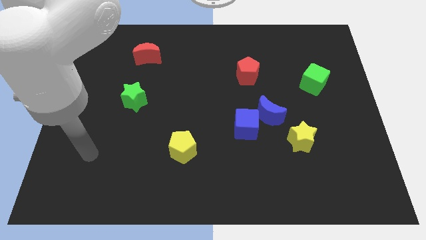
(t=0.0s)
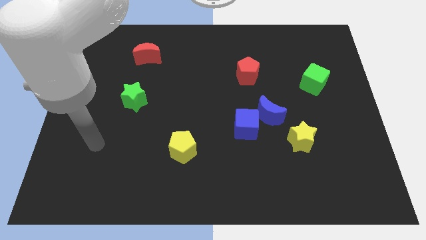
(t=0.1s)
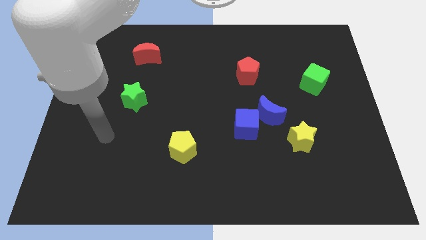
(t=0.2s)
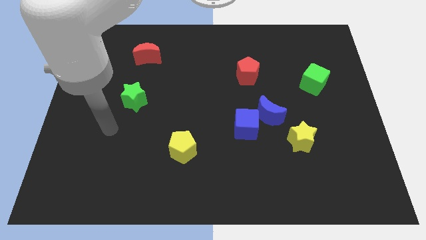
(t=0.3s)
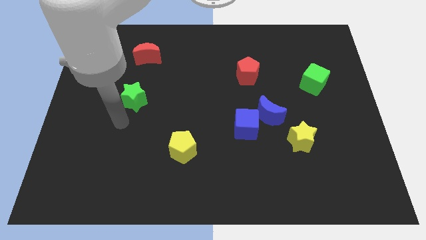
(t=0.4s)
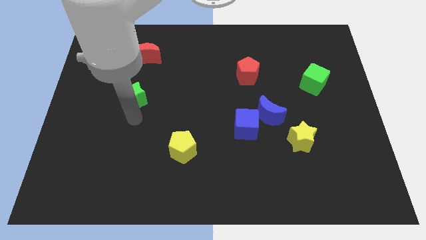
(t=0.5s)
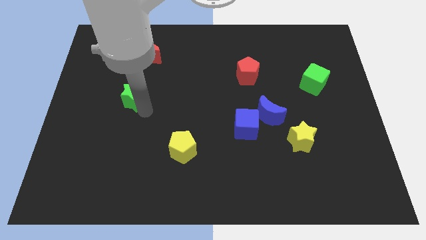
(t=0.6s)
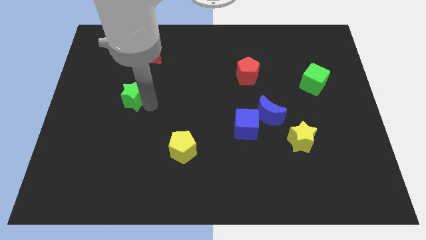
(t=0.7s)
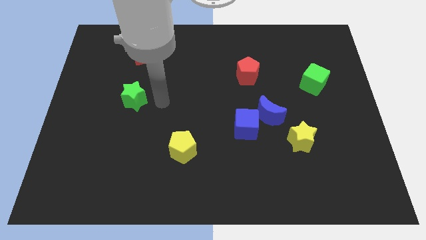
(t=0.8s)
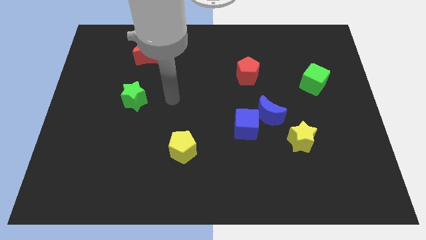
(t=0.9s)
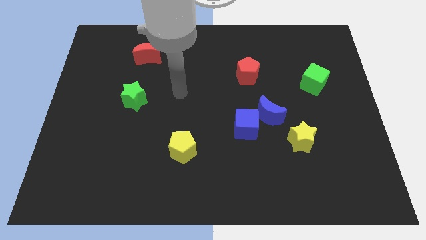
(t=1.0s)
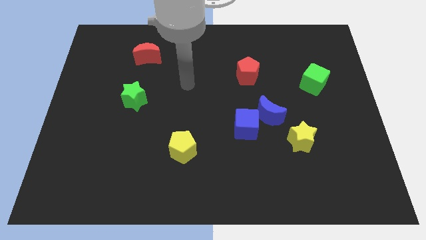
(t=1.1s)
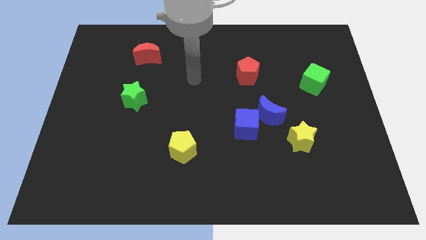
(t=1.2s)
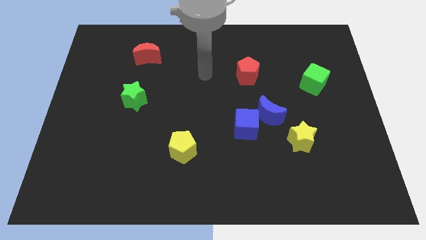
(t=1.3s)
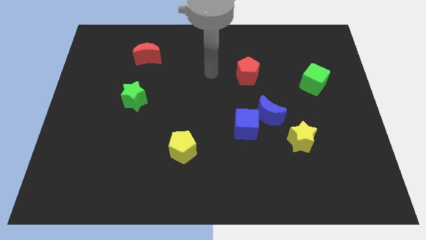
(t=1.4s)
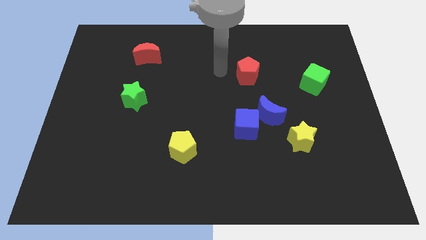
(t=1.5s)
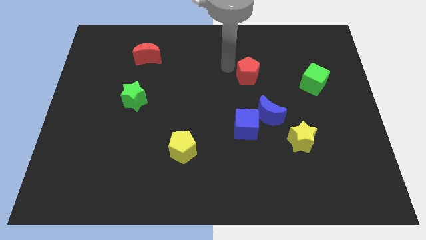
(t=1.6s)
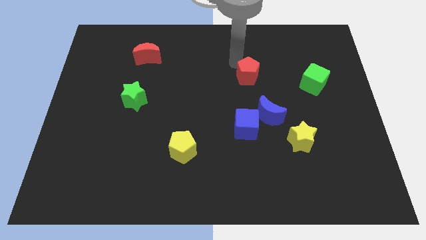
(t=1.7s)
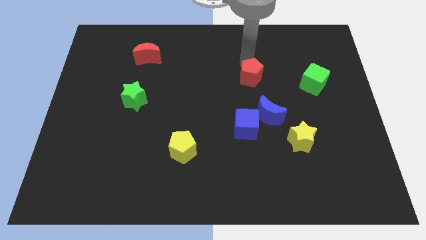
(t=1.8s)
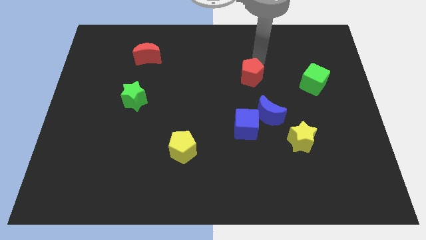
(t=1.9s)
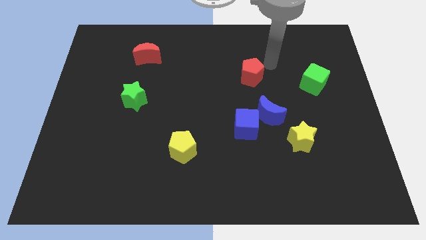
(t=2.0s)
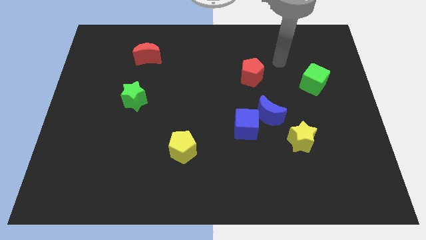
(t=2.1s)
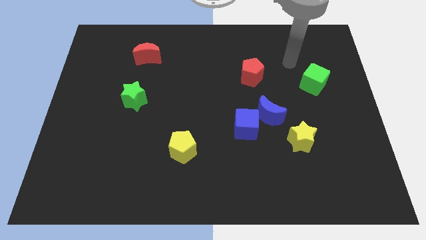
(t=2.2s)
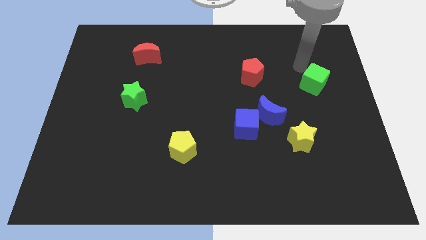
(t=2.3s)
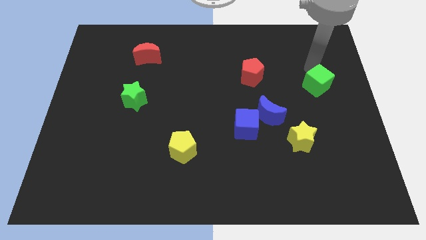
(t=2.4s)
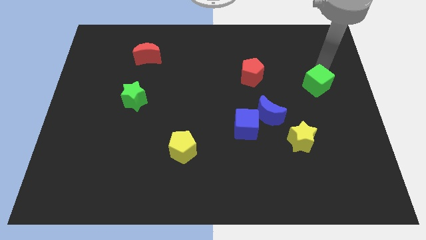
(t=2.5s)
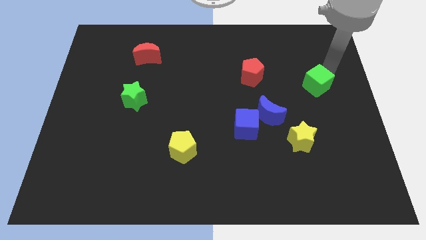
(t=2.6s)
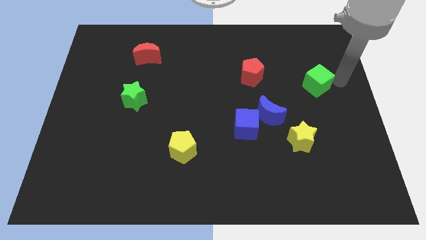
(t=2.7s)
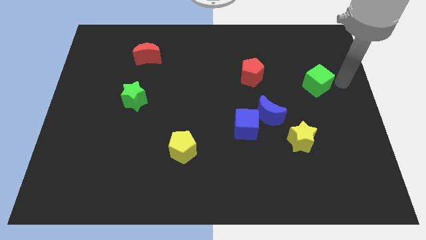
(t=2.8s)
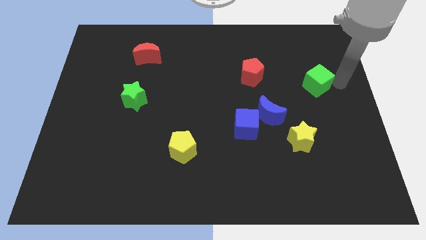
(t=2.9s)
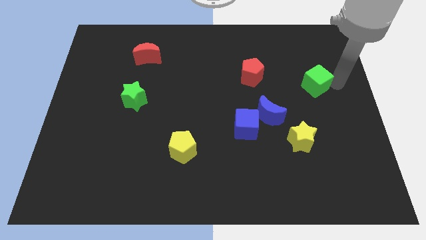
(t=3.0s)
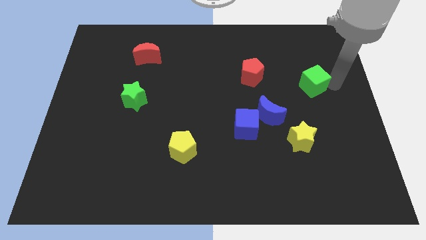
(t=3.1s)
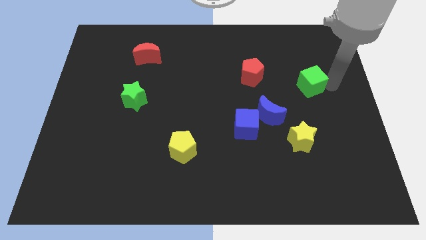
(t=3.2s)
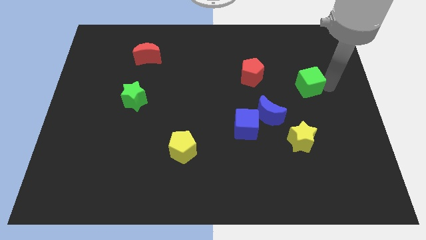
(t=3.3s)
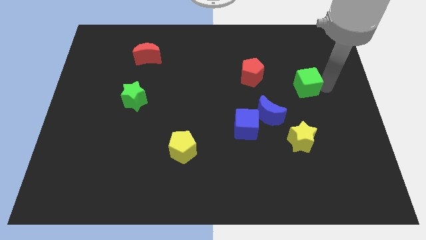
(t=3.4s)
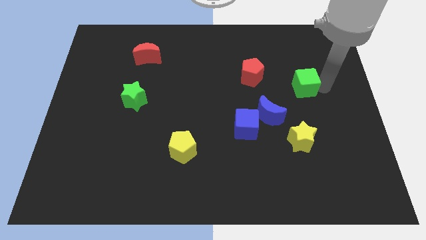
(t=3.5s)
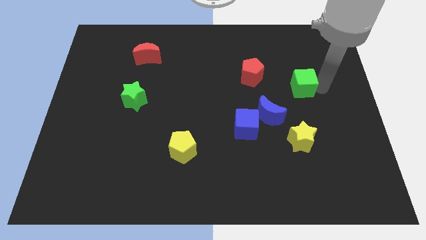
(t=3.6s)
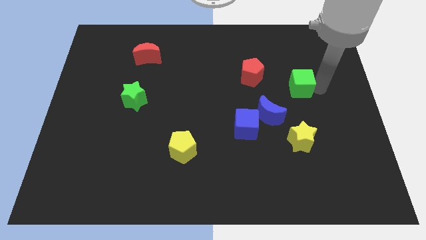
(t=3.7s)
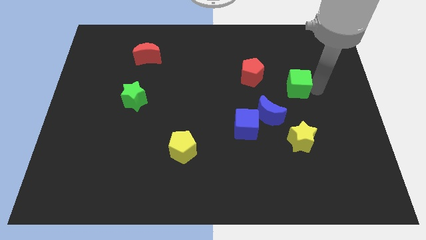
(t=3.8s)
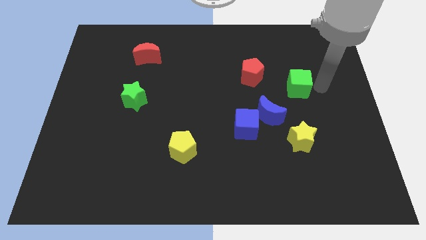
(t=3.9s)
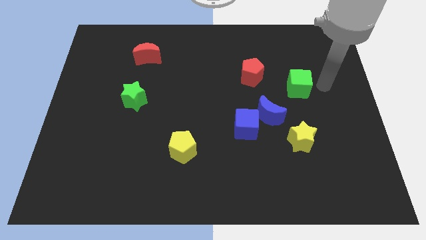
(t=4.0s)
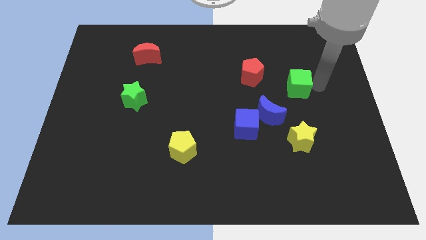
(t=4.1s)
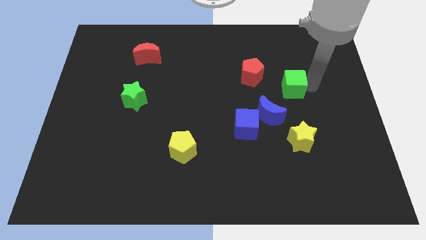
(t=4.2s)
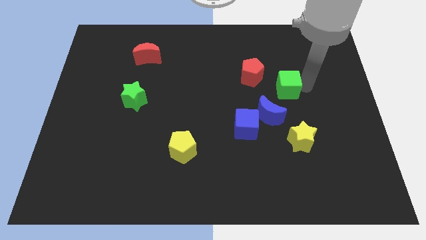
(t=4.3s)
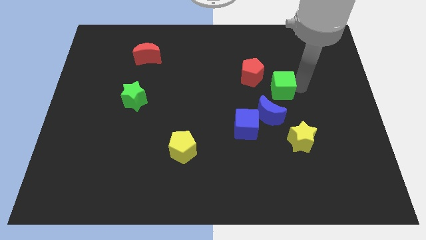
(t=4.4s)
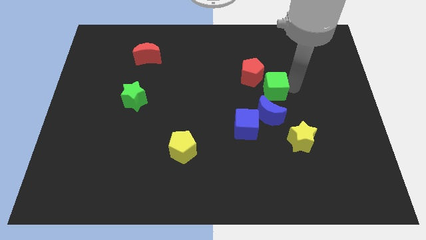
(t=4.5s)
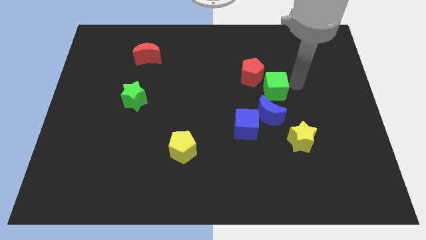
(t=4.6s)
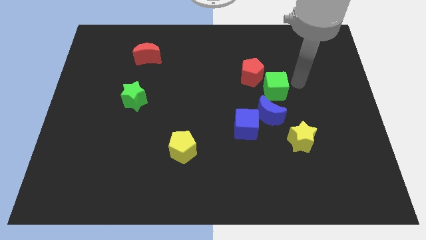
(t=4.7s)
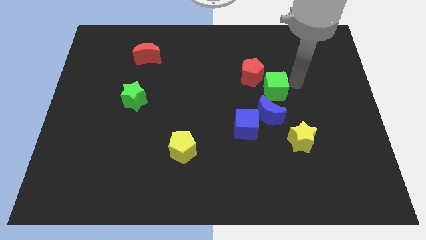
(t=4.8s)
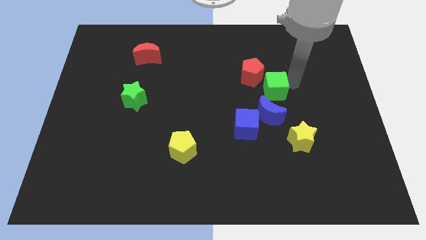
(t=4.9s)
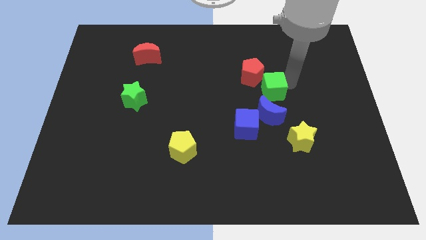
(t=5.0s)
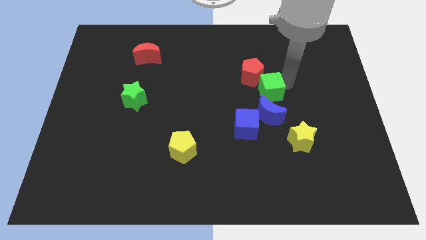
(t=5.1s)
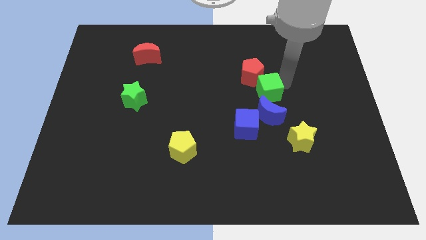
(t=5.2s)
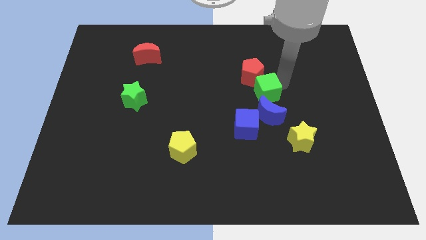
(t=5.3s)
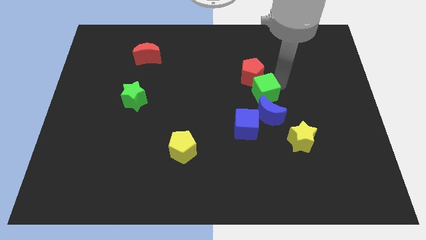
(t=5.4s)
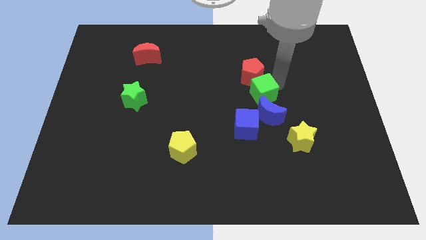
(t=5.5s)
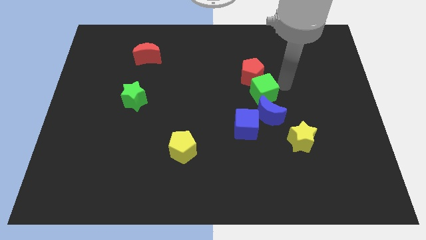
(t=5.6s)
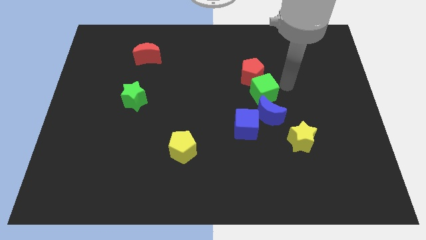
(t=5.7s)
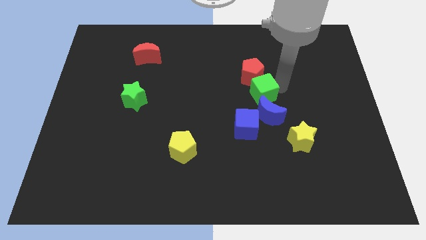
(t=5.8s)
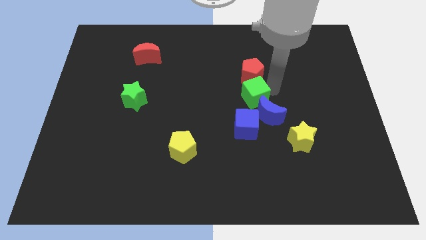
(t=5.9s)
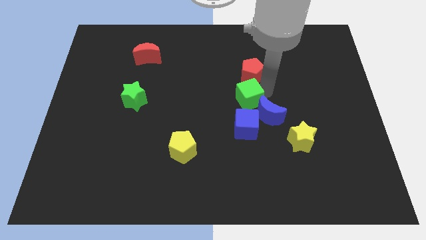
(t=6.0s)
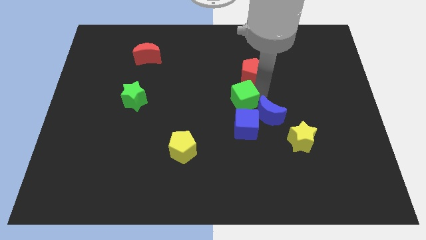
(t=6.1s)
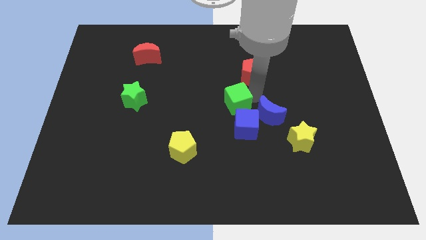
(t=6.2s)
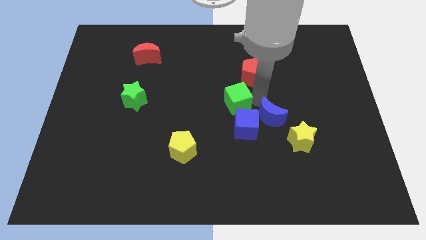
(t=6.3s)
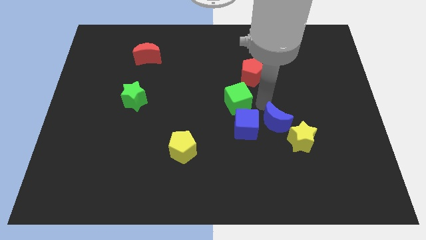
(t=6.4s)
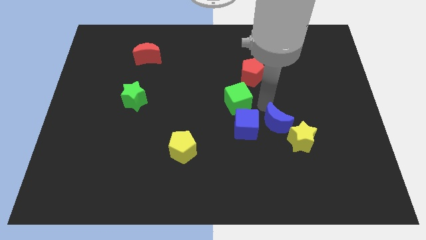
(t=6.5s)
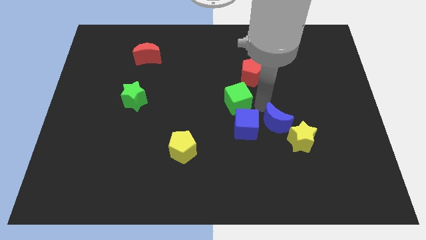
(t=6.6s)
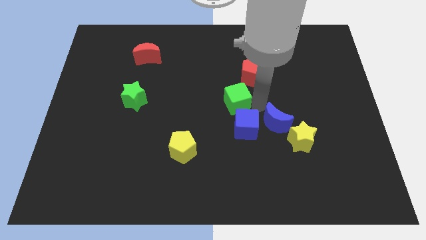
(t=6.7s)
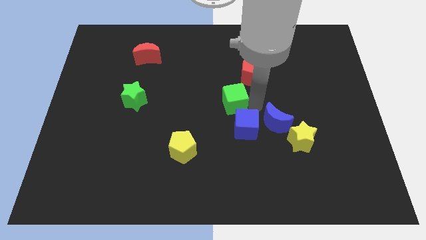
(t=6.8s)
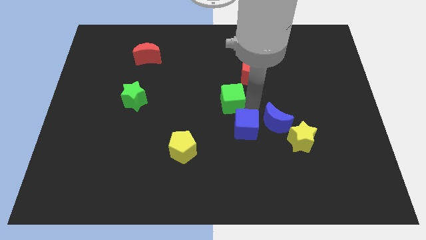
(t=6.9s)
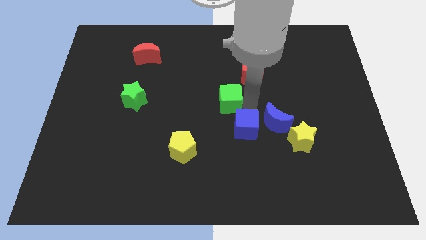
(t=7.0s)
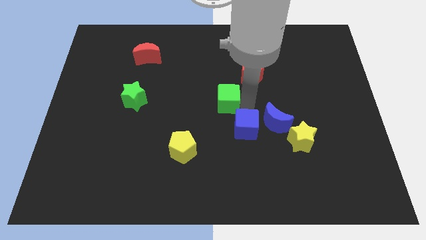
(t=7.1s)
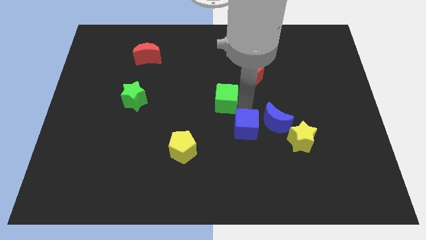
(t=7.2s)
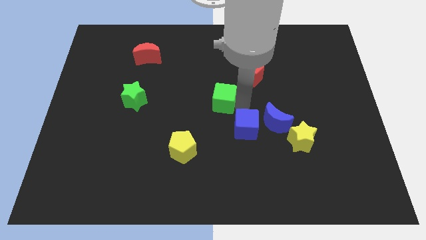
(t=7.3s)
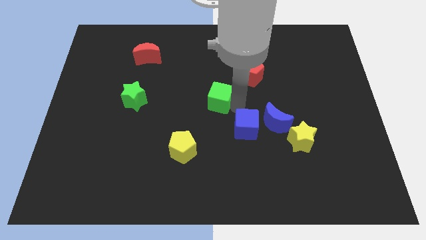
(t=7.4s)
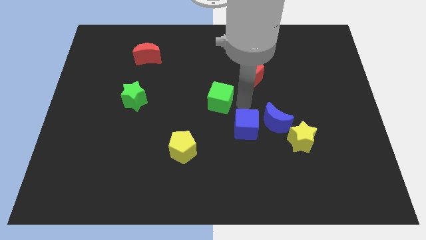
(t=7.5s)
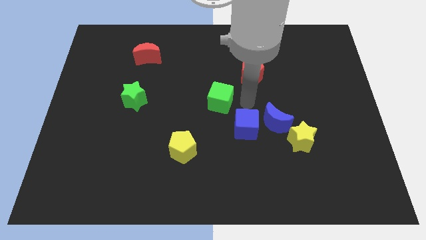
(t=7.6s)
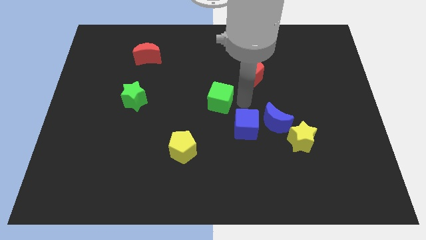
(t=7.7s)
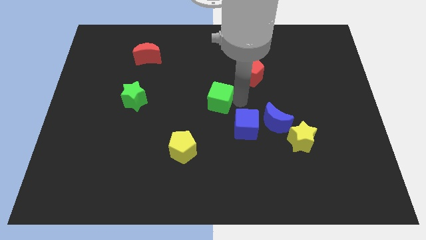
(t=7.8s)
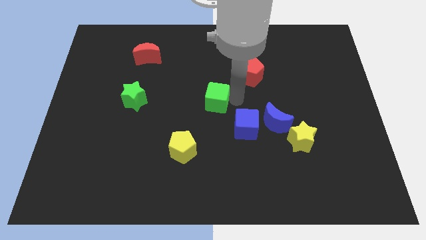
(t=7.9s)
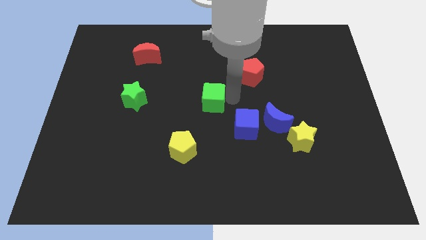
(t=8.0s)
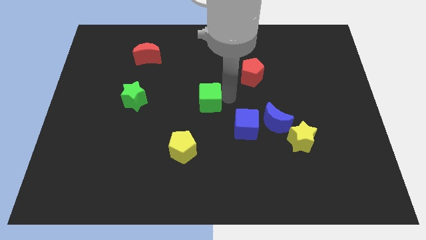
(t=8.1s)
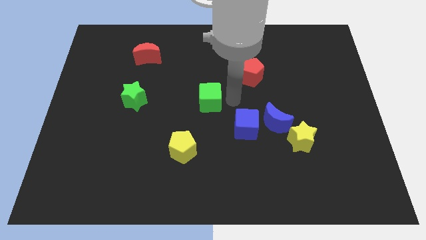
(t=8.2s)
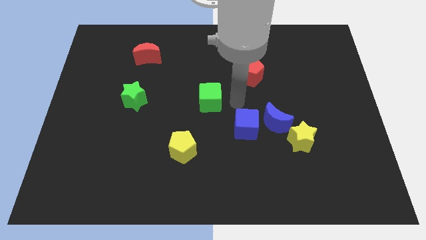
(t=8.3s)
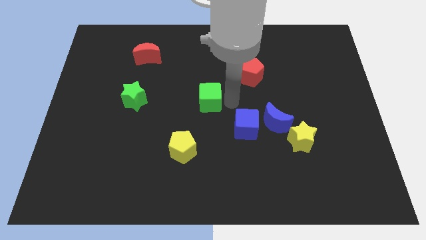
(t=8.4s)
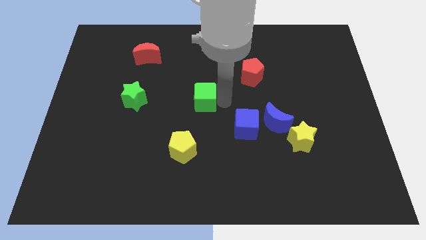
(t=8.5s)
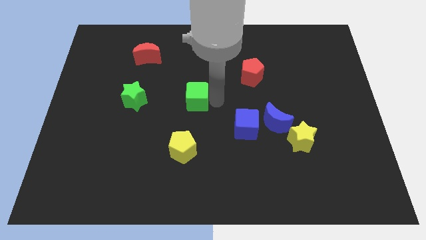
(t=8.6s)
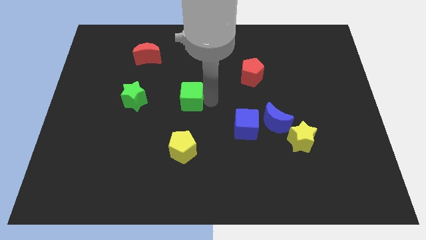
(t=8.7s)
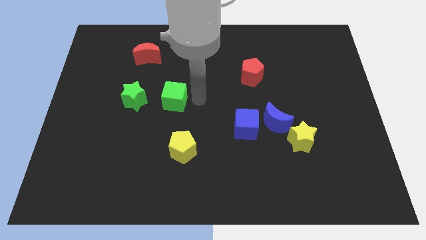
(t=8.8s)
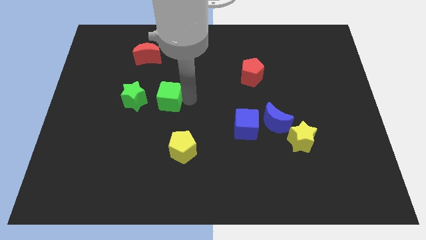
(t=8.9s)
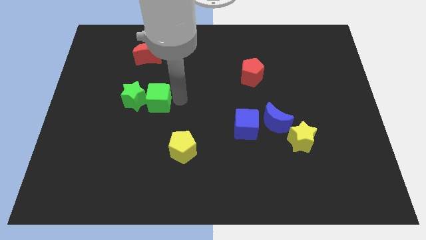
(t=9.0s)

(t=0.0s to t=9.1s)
put the green cube close to the green star
